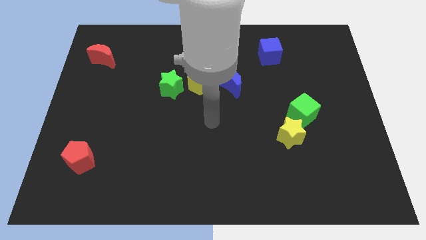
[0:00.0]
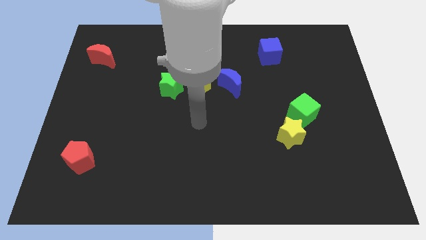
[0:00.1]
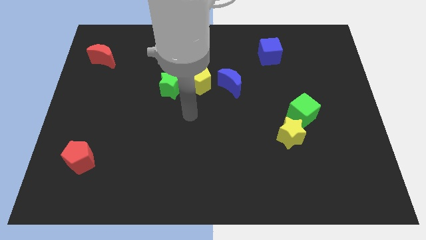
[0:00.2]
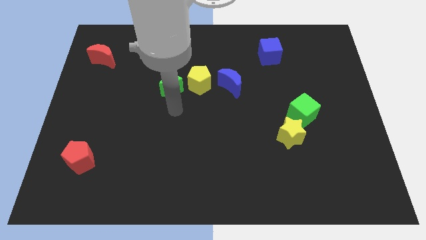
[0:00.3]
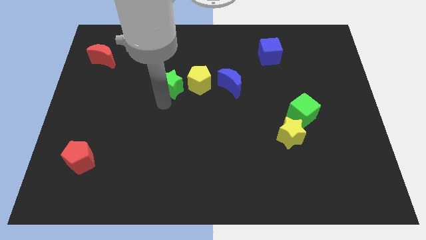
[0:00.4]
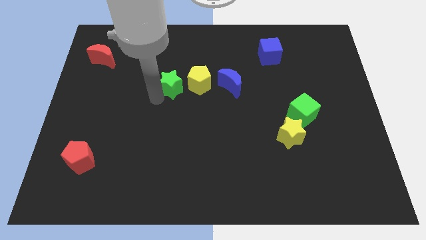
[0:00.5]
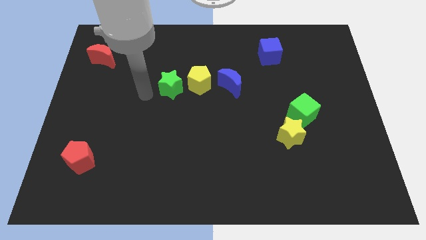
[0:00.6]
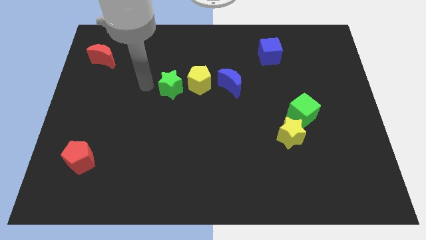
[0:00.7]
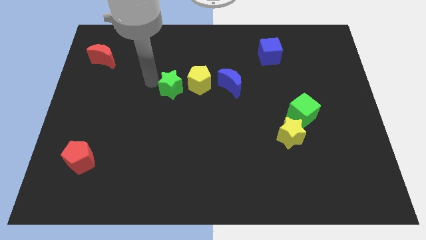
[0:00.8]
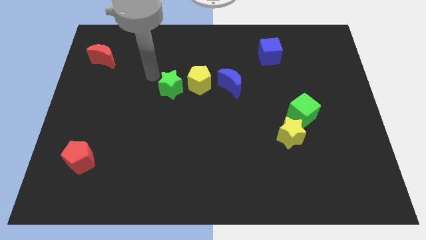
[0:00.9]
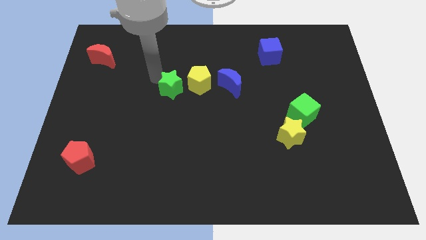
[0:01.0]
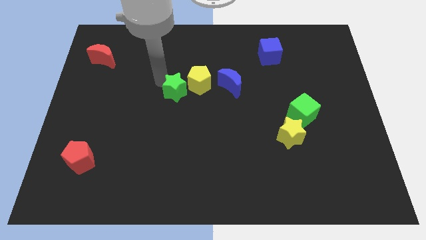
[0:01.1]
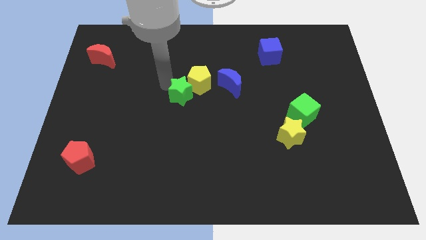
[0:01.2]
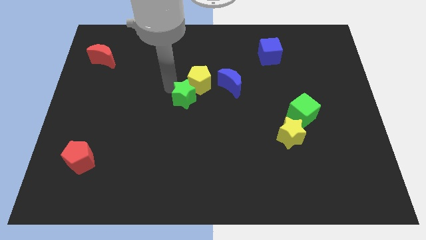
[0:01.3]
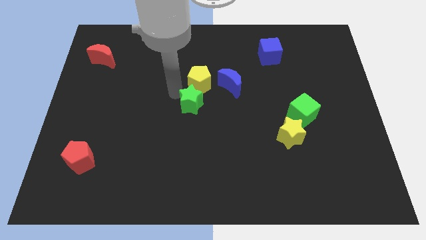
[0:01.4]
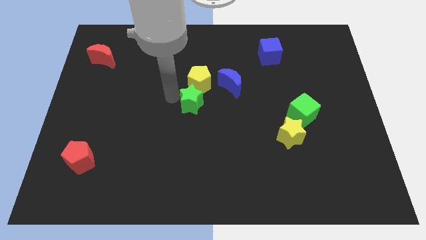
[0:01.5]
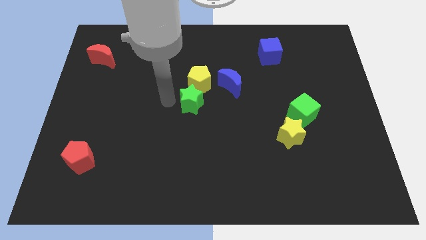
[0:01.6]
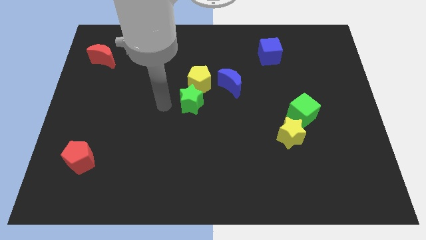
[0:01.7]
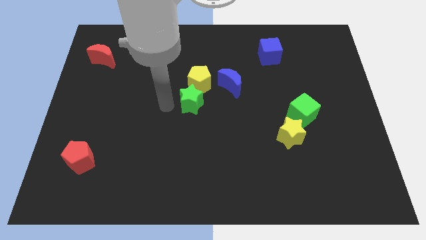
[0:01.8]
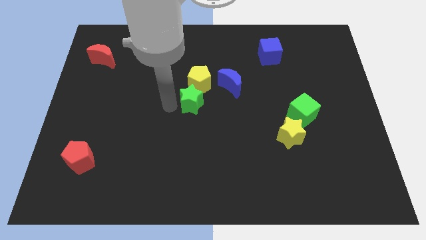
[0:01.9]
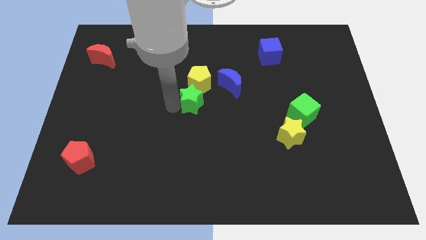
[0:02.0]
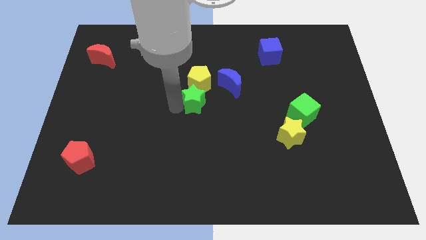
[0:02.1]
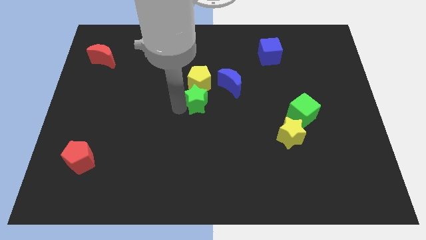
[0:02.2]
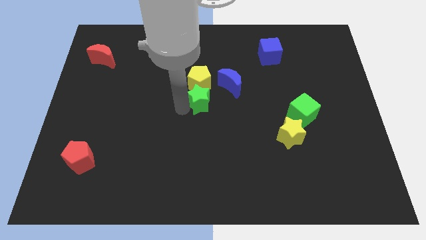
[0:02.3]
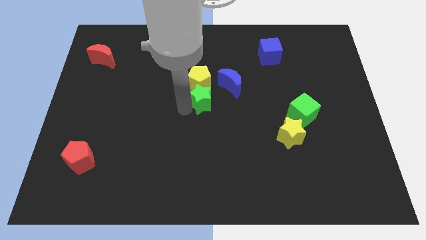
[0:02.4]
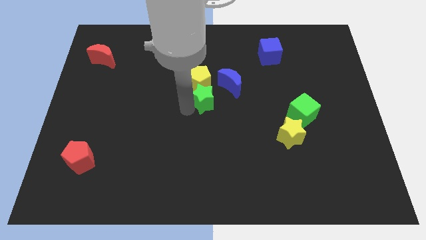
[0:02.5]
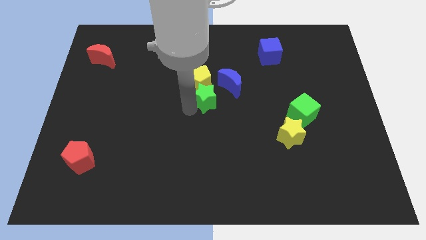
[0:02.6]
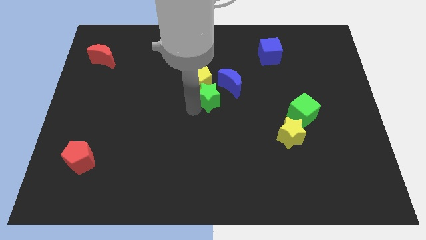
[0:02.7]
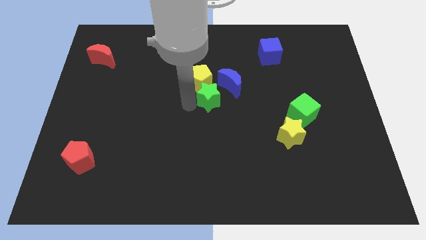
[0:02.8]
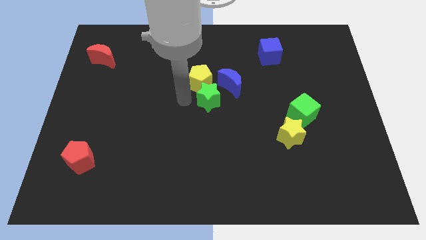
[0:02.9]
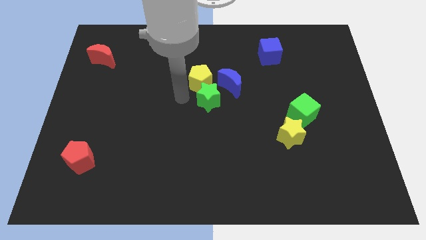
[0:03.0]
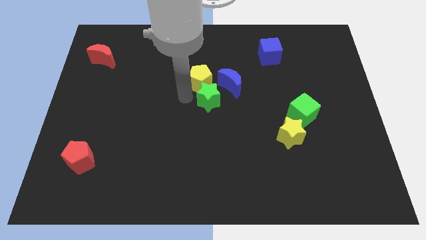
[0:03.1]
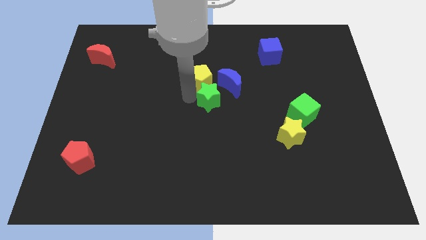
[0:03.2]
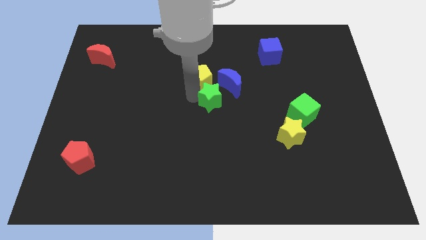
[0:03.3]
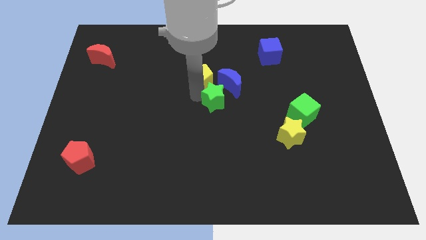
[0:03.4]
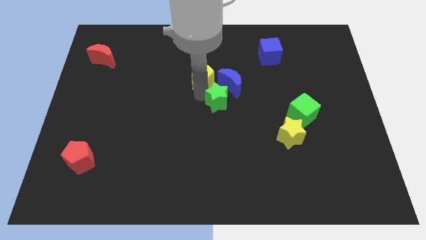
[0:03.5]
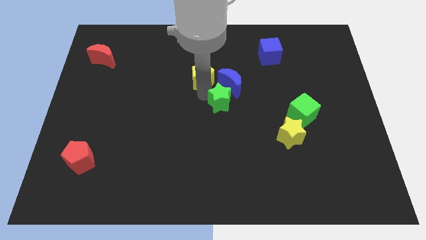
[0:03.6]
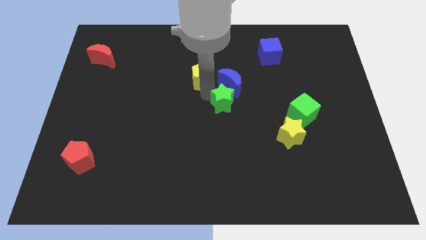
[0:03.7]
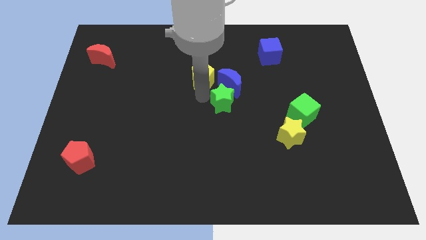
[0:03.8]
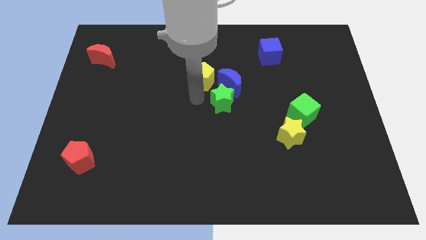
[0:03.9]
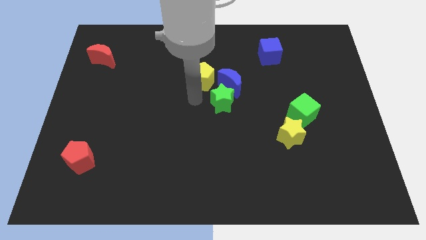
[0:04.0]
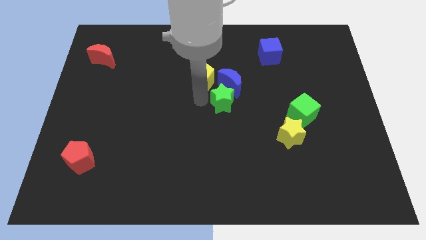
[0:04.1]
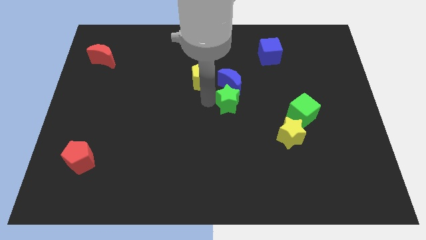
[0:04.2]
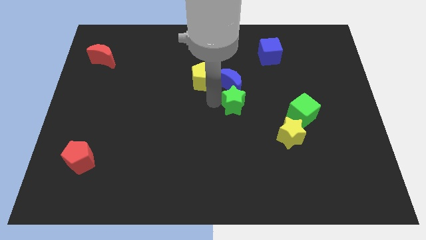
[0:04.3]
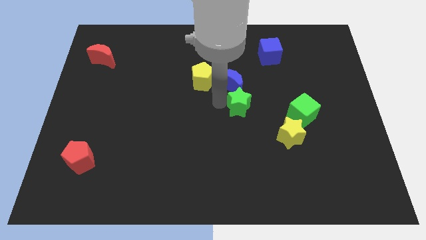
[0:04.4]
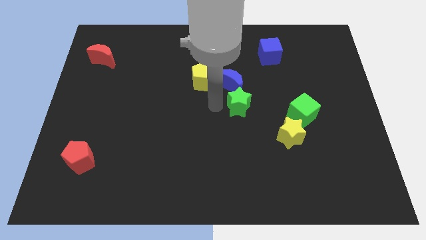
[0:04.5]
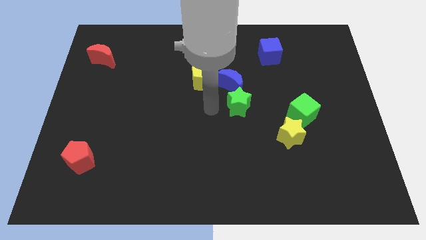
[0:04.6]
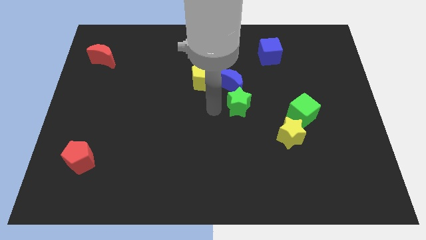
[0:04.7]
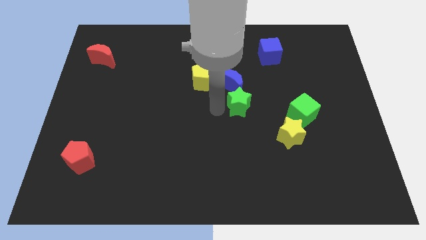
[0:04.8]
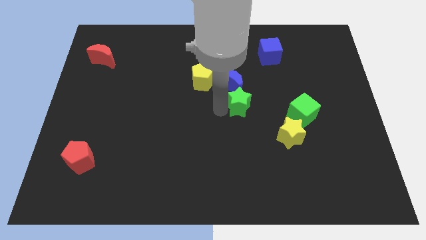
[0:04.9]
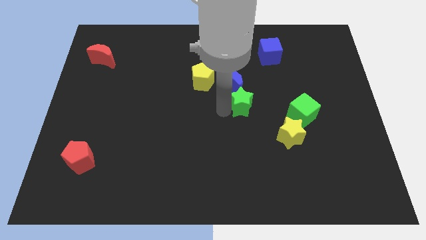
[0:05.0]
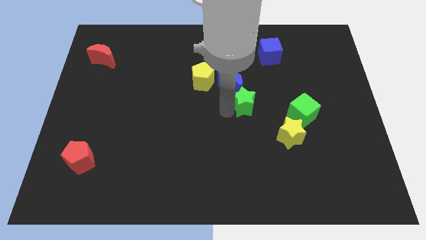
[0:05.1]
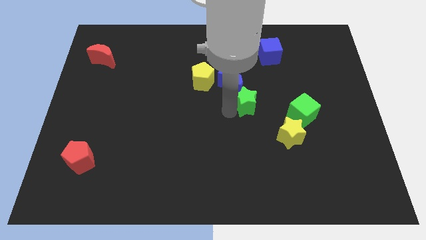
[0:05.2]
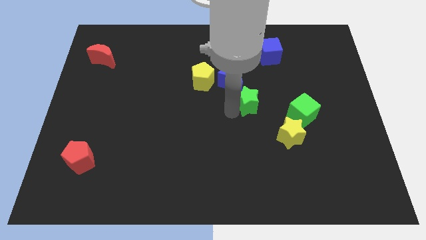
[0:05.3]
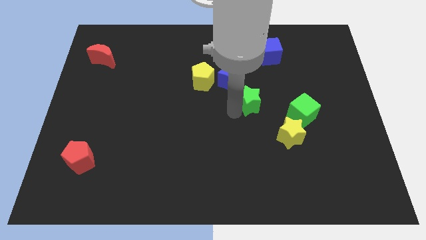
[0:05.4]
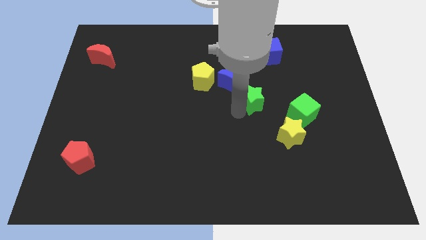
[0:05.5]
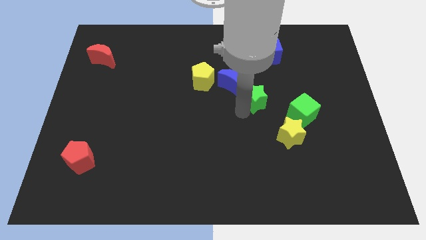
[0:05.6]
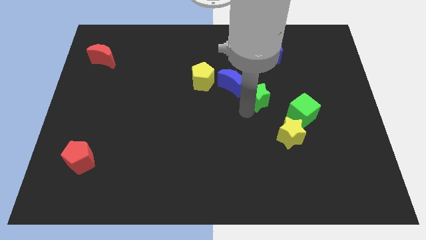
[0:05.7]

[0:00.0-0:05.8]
move the green star to the right

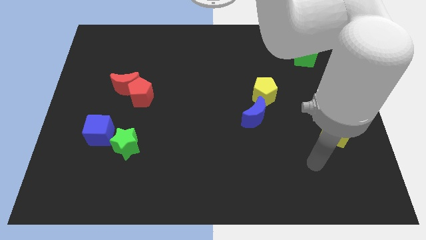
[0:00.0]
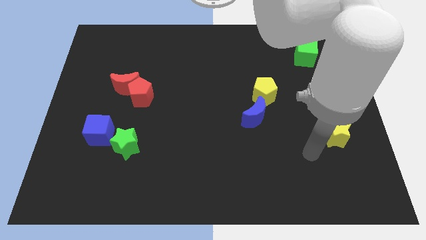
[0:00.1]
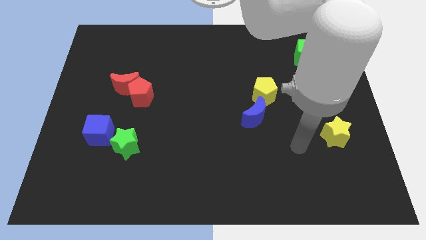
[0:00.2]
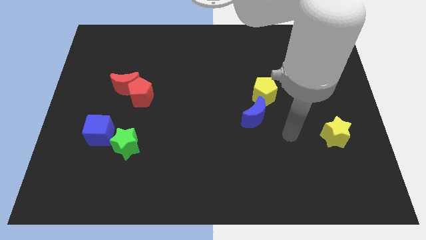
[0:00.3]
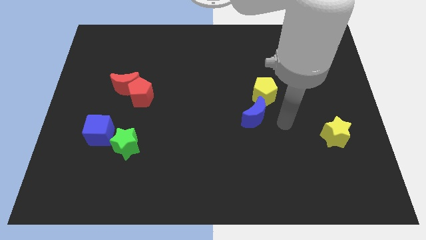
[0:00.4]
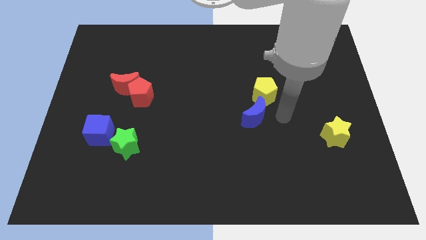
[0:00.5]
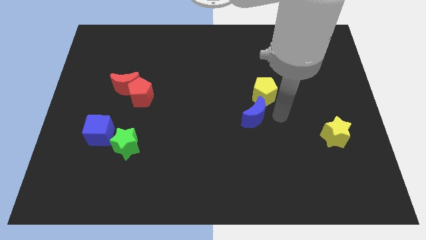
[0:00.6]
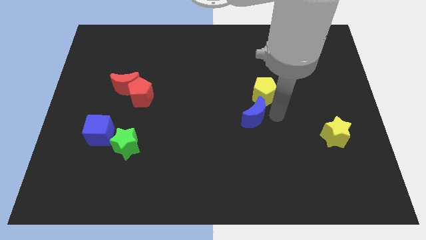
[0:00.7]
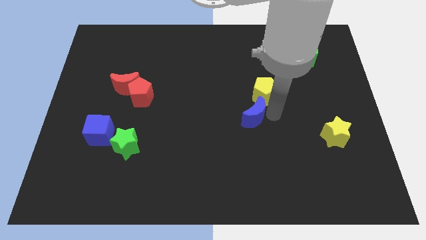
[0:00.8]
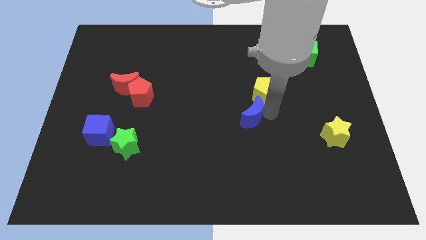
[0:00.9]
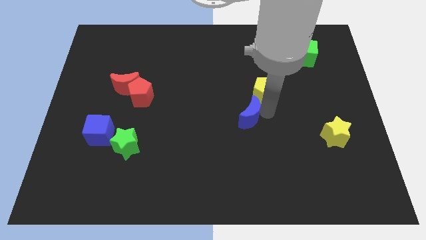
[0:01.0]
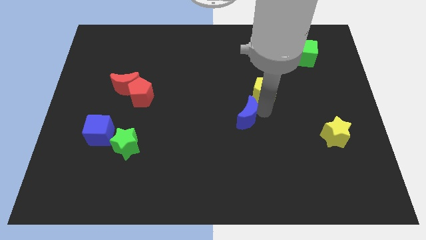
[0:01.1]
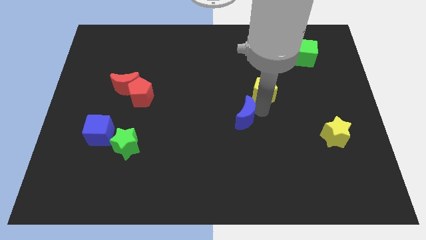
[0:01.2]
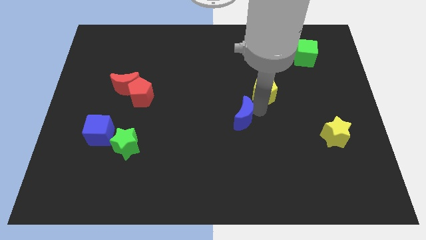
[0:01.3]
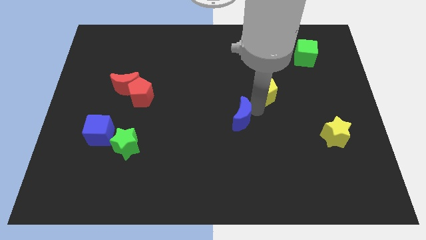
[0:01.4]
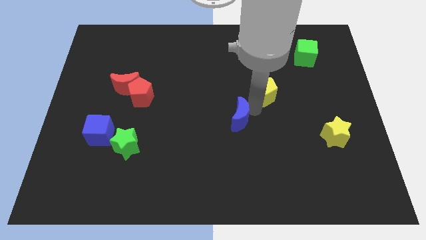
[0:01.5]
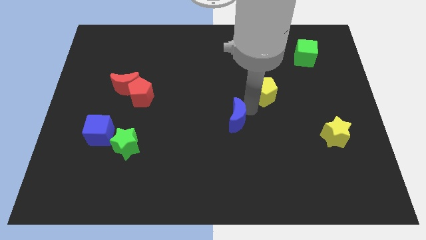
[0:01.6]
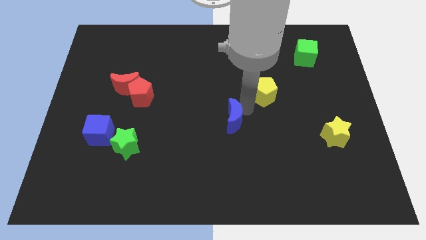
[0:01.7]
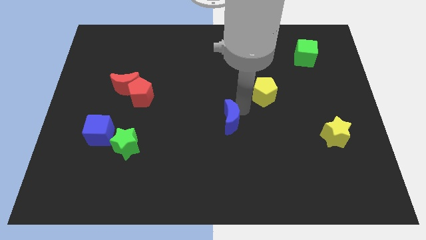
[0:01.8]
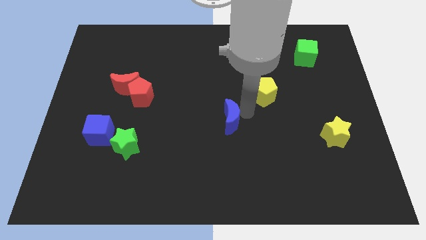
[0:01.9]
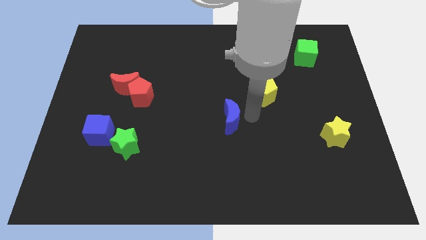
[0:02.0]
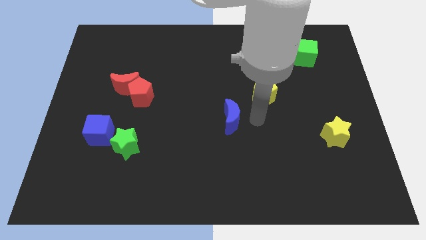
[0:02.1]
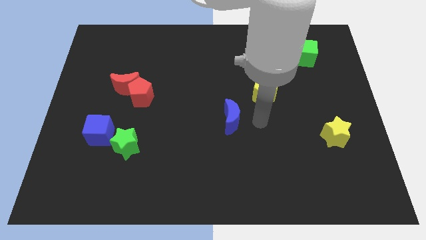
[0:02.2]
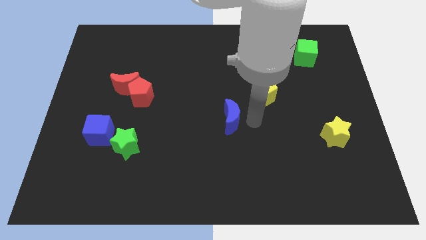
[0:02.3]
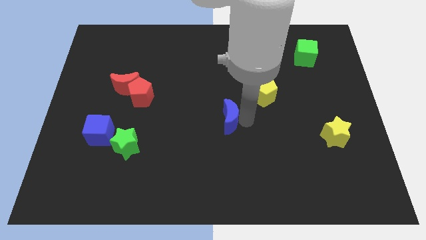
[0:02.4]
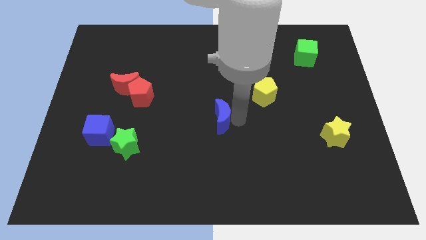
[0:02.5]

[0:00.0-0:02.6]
slightly push the blue moon left
